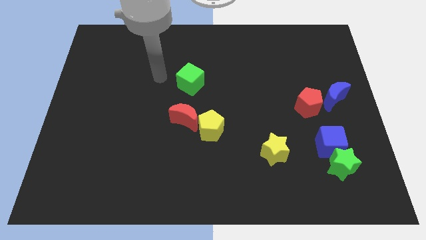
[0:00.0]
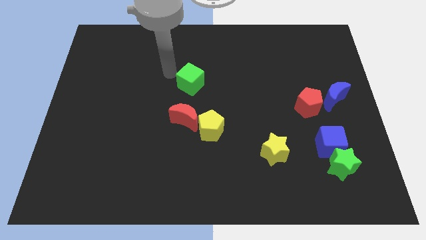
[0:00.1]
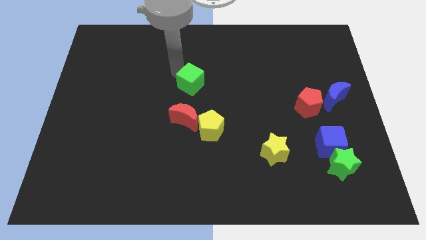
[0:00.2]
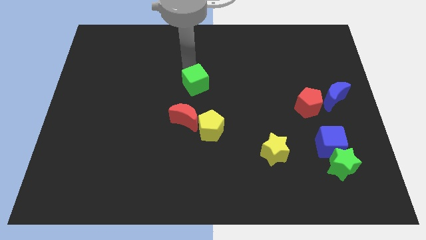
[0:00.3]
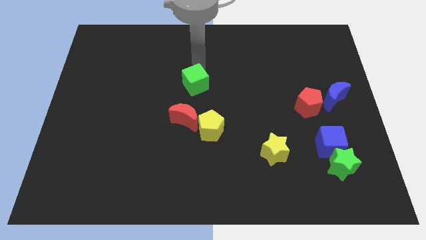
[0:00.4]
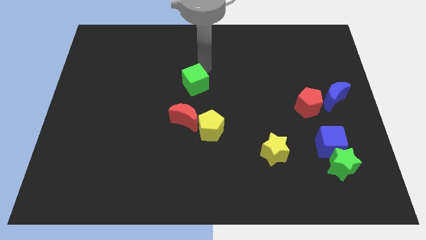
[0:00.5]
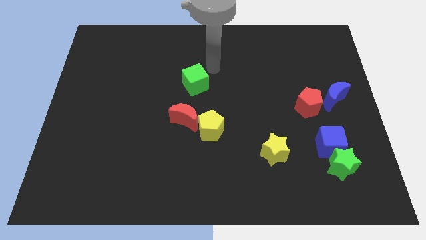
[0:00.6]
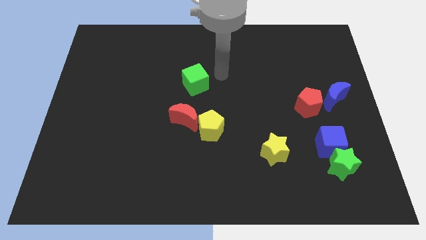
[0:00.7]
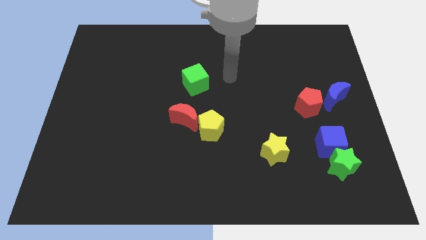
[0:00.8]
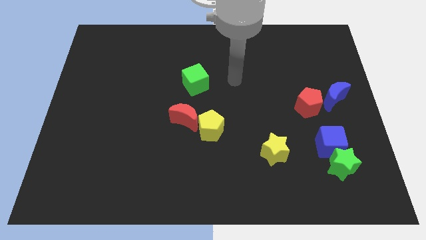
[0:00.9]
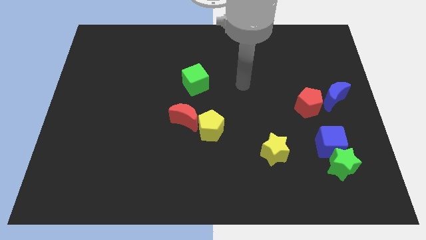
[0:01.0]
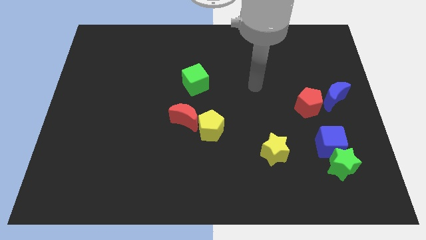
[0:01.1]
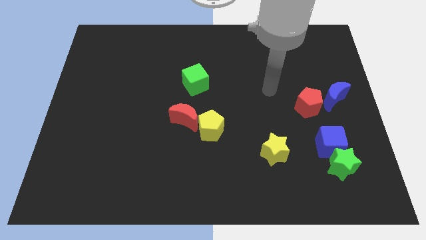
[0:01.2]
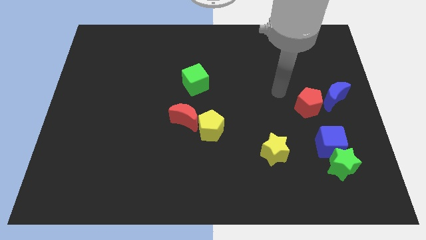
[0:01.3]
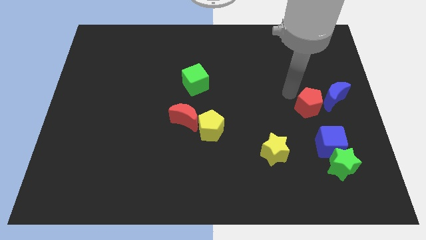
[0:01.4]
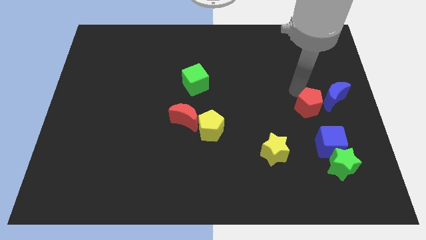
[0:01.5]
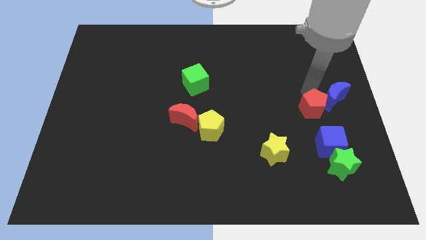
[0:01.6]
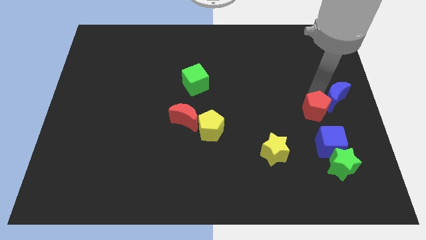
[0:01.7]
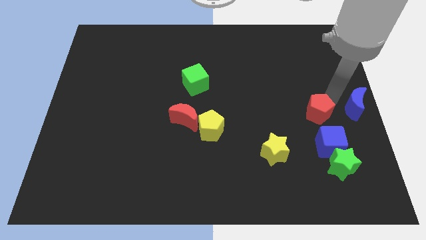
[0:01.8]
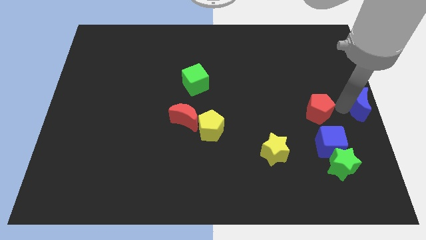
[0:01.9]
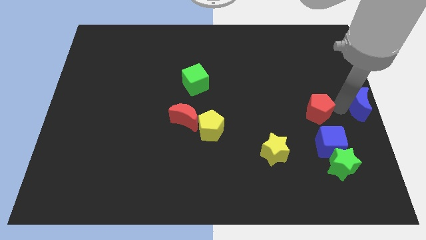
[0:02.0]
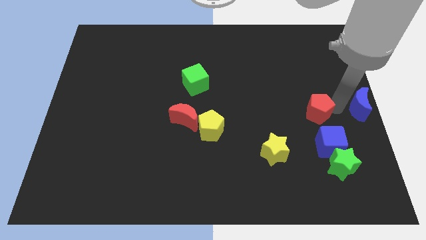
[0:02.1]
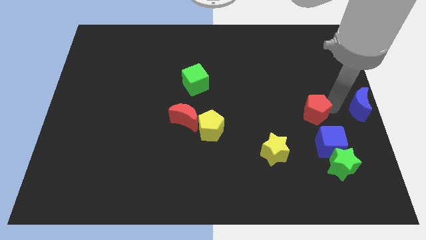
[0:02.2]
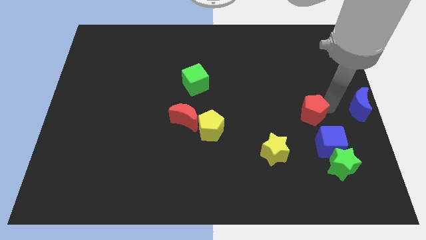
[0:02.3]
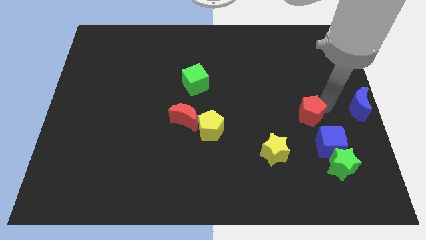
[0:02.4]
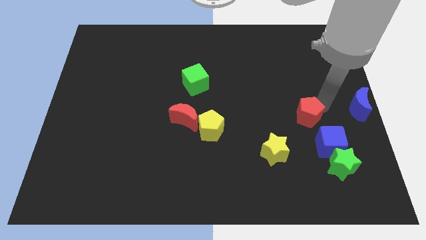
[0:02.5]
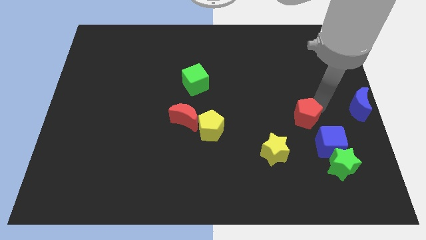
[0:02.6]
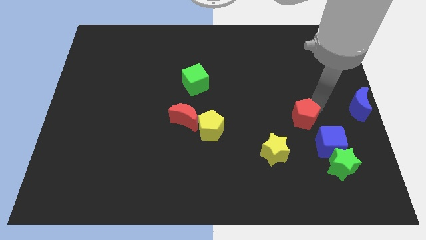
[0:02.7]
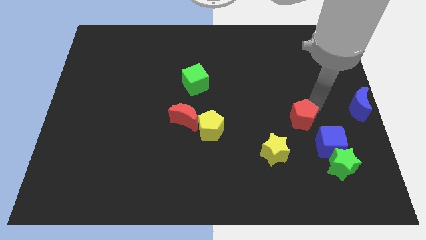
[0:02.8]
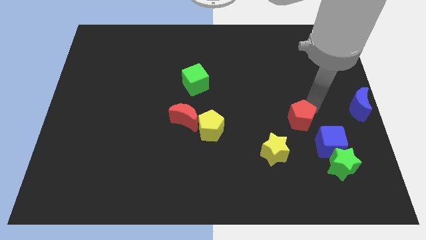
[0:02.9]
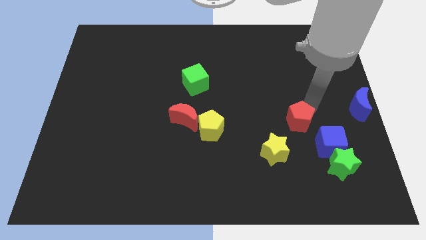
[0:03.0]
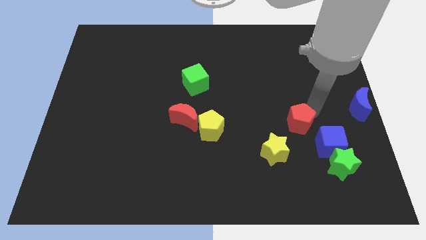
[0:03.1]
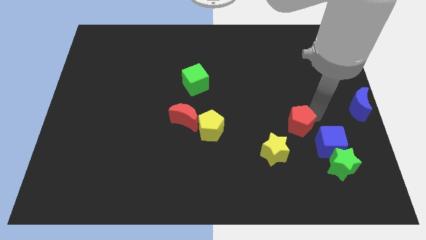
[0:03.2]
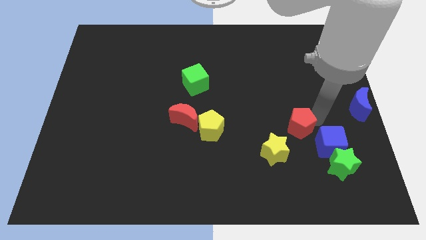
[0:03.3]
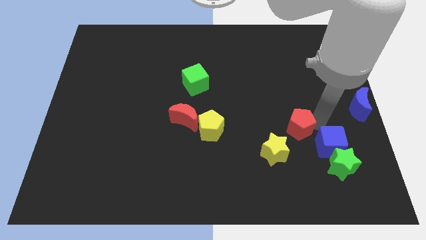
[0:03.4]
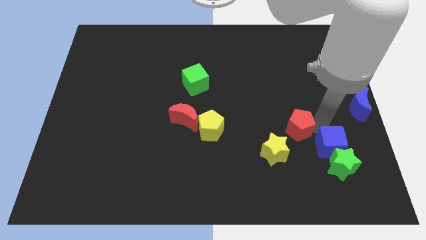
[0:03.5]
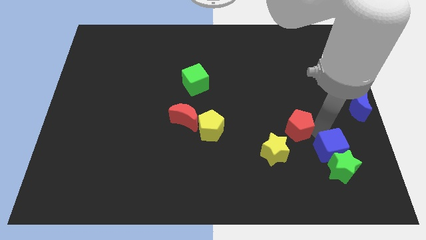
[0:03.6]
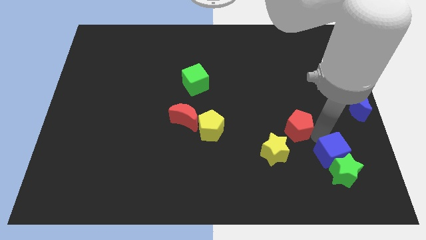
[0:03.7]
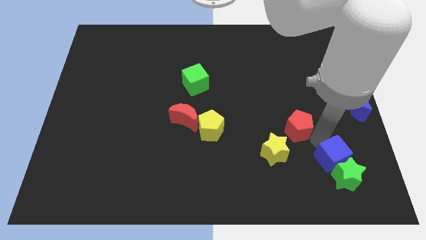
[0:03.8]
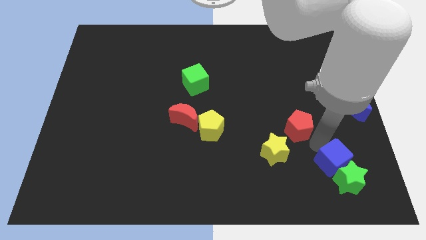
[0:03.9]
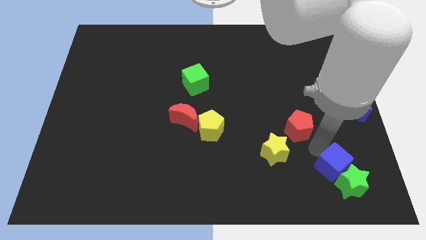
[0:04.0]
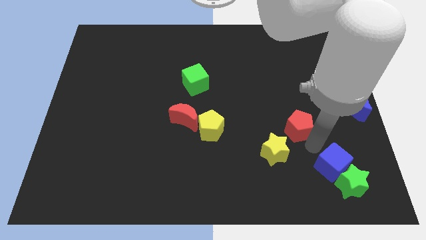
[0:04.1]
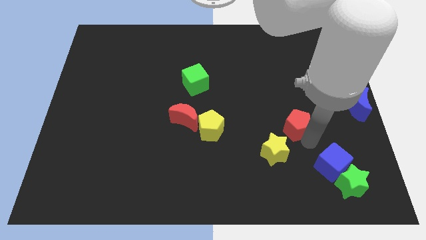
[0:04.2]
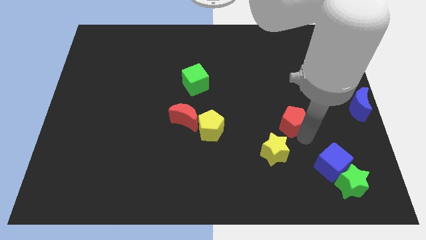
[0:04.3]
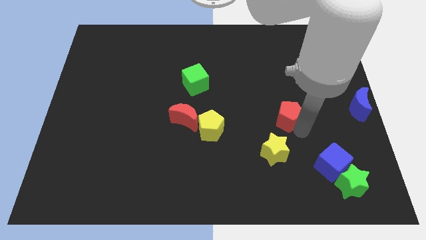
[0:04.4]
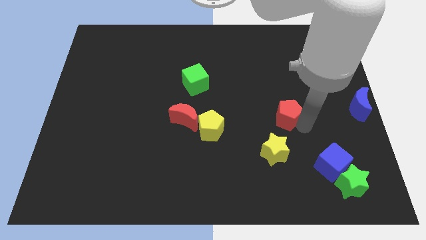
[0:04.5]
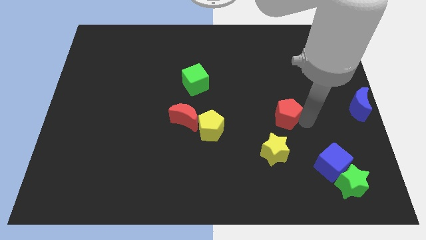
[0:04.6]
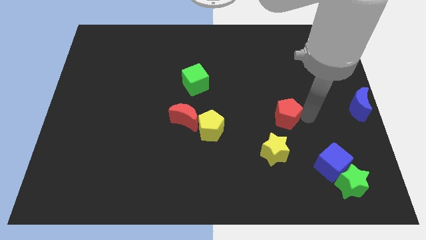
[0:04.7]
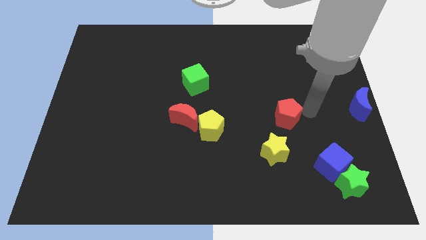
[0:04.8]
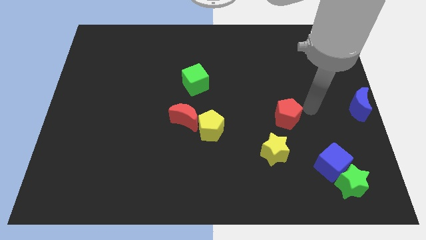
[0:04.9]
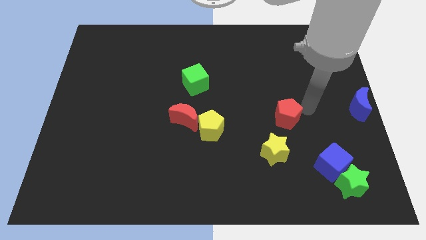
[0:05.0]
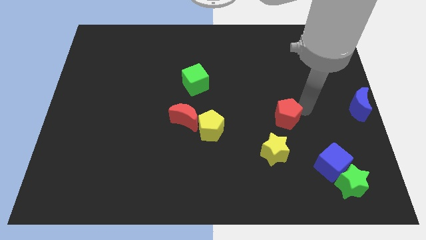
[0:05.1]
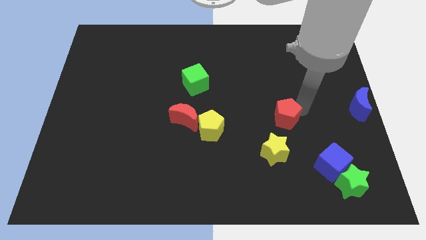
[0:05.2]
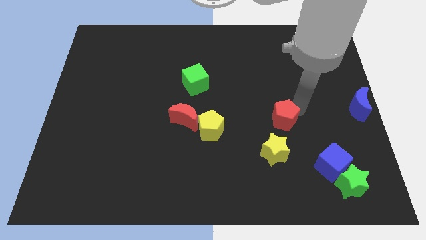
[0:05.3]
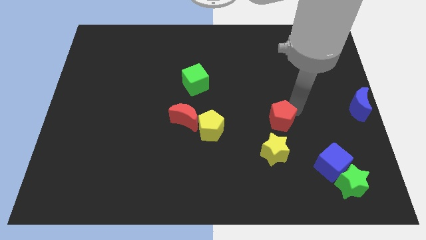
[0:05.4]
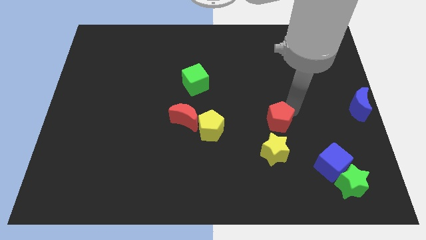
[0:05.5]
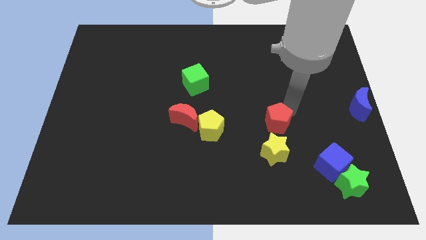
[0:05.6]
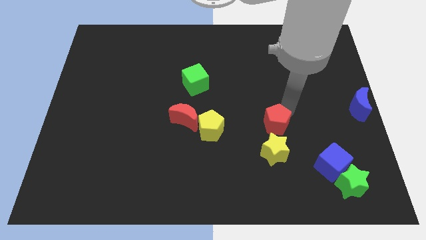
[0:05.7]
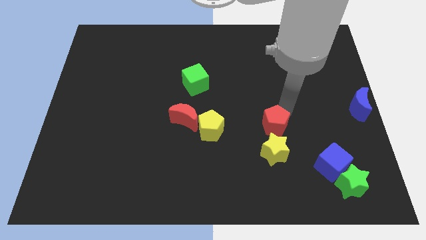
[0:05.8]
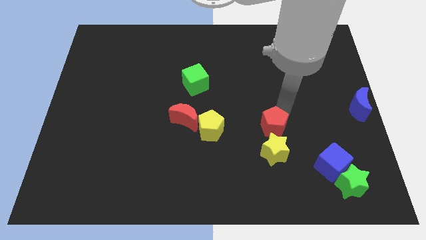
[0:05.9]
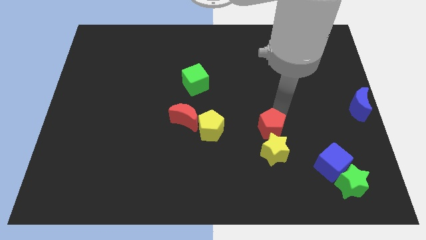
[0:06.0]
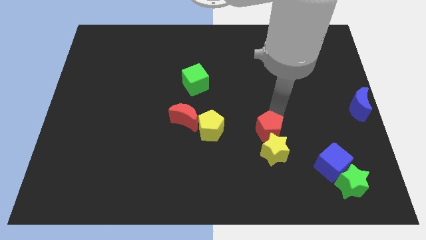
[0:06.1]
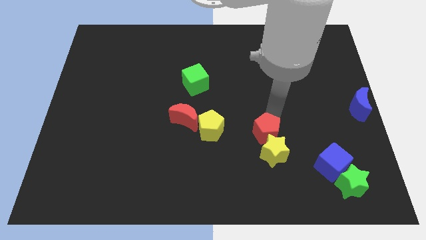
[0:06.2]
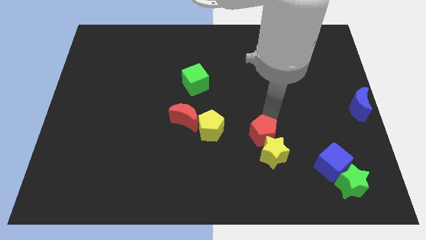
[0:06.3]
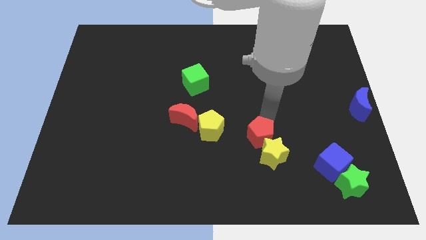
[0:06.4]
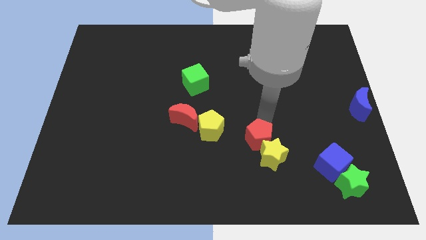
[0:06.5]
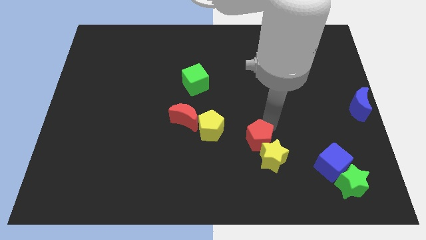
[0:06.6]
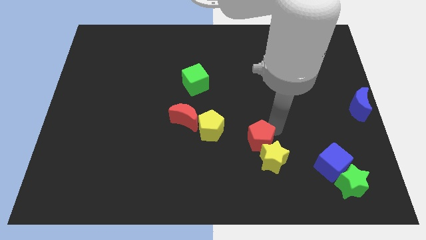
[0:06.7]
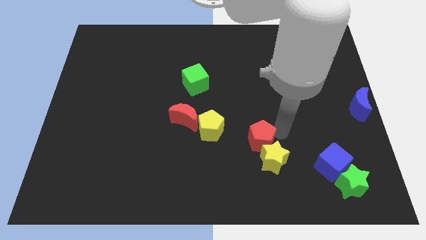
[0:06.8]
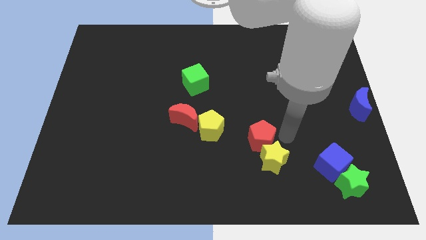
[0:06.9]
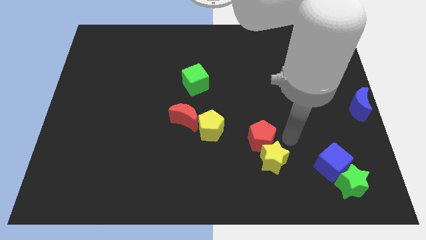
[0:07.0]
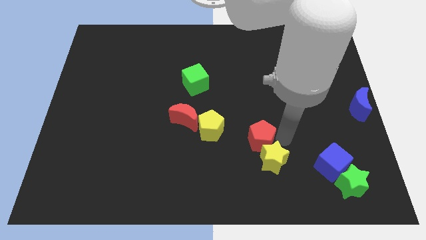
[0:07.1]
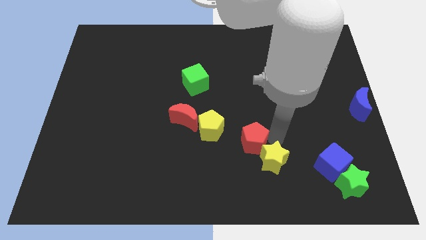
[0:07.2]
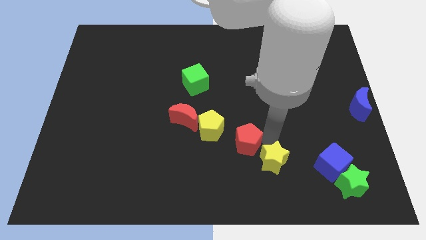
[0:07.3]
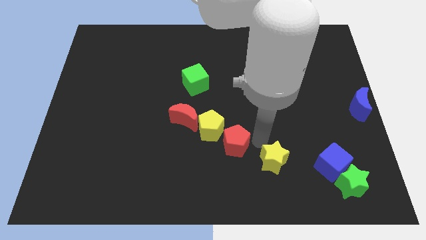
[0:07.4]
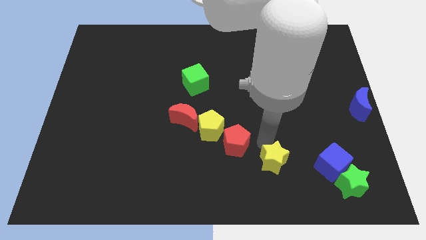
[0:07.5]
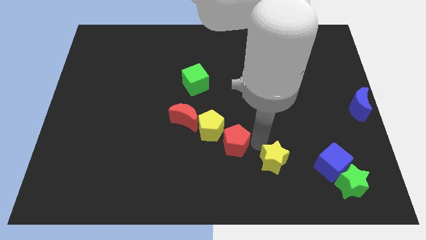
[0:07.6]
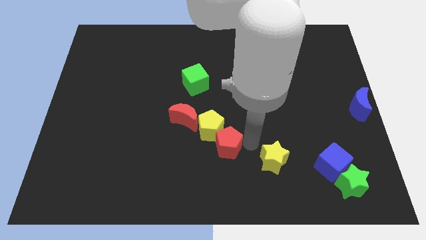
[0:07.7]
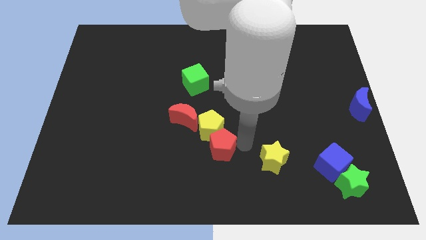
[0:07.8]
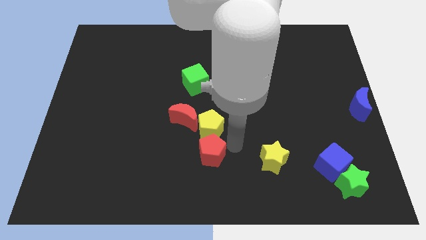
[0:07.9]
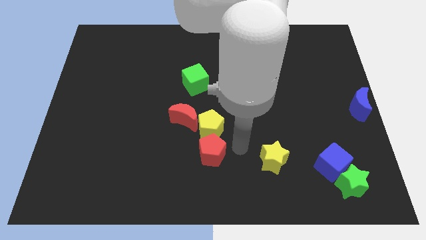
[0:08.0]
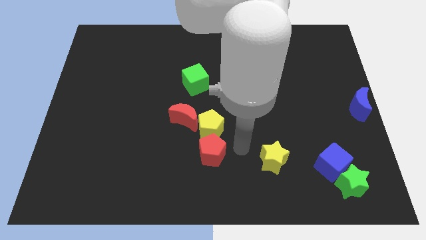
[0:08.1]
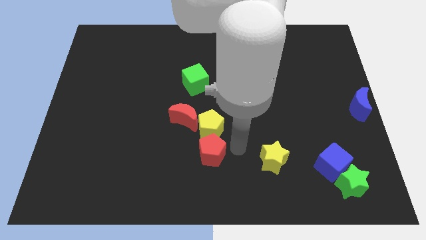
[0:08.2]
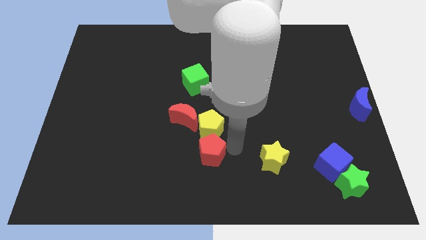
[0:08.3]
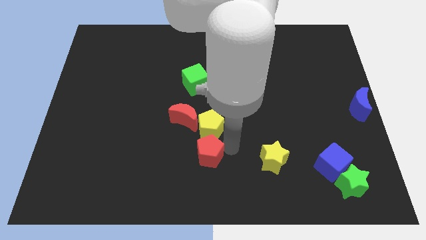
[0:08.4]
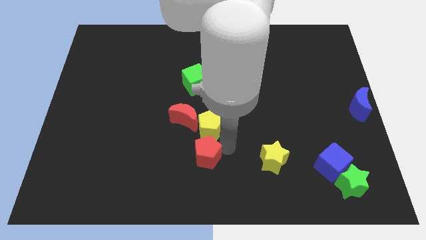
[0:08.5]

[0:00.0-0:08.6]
slide the red pentagon to the bottom side of the red moon
